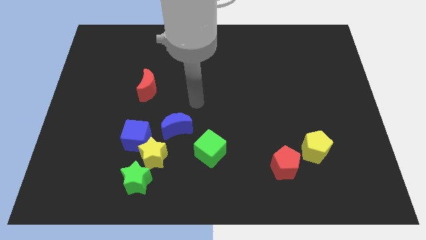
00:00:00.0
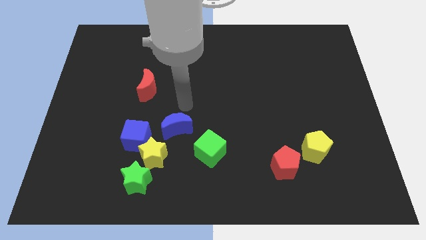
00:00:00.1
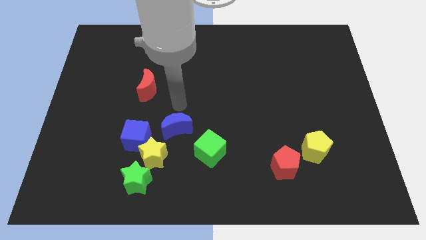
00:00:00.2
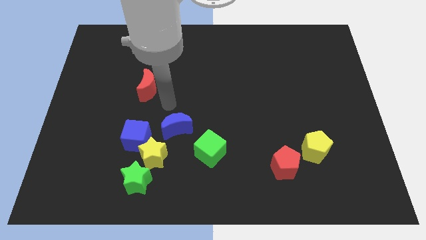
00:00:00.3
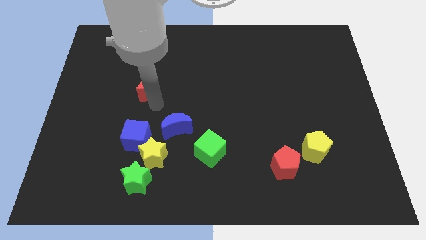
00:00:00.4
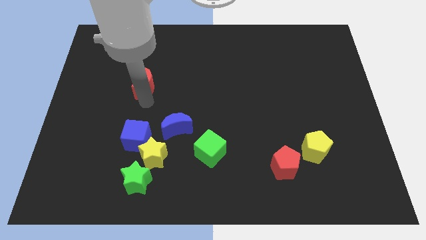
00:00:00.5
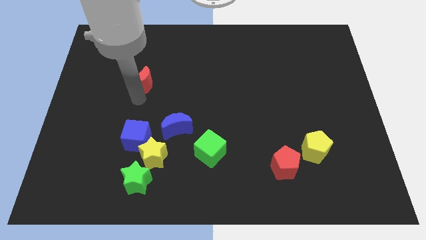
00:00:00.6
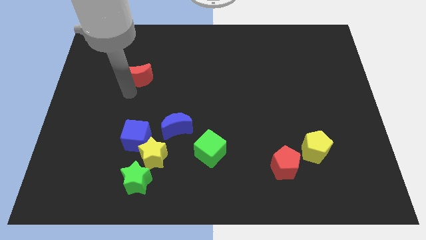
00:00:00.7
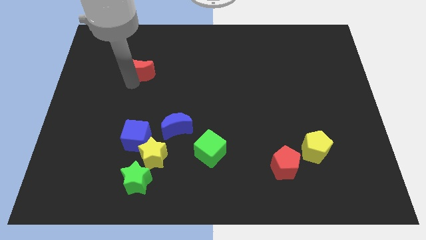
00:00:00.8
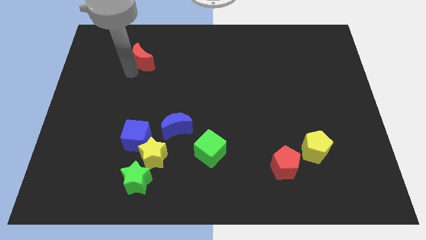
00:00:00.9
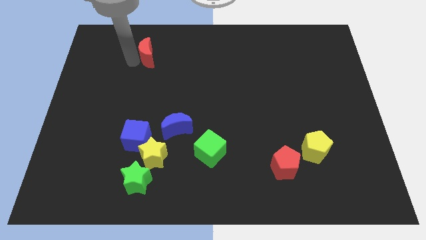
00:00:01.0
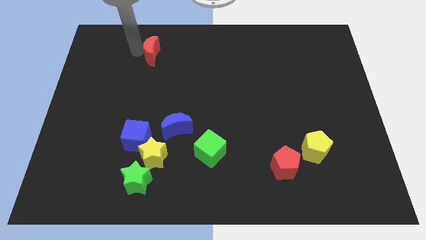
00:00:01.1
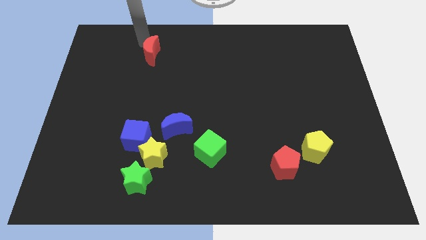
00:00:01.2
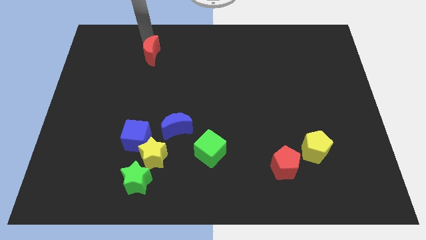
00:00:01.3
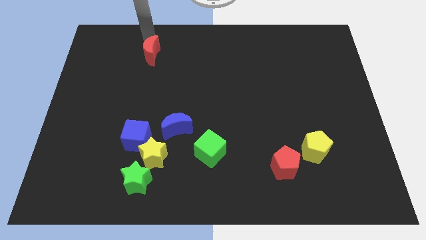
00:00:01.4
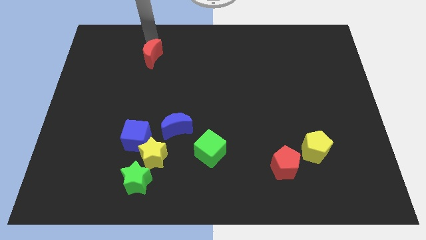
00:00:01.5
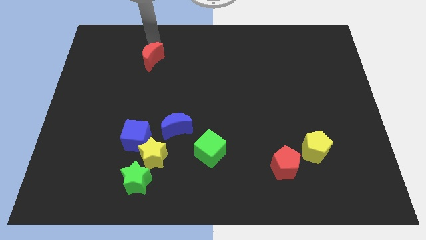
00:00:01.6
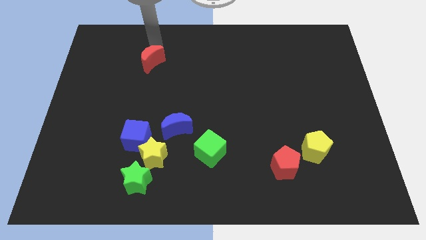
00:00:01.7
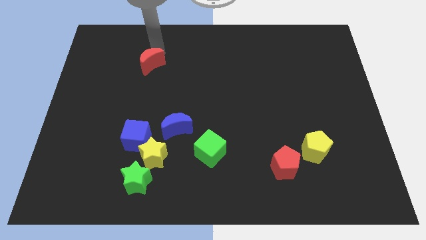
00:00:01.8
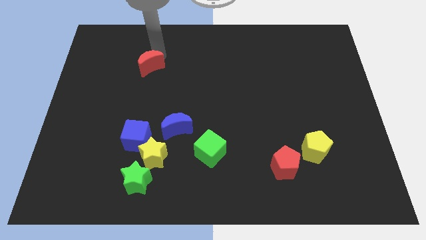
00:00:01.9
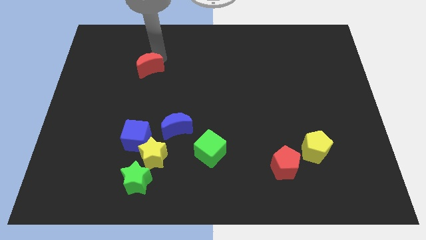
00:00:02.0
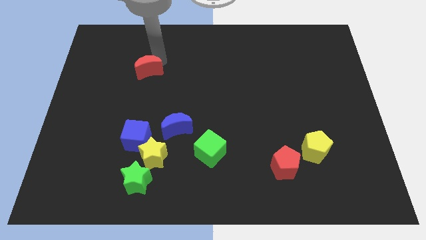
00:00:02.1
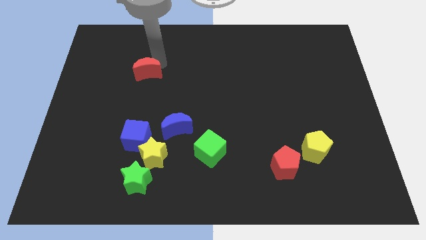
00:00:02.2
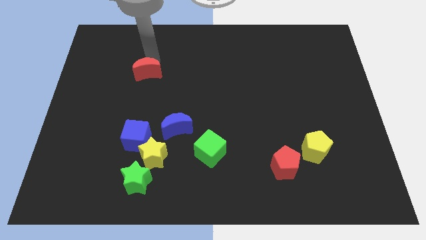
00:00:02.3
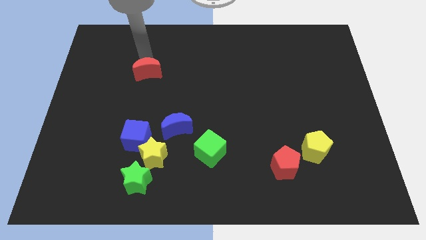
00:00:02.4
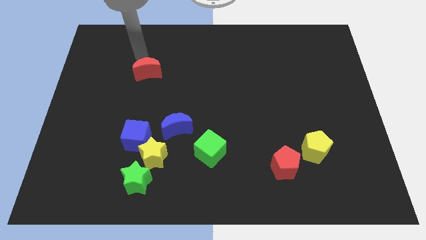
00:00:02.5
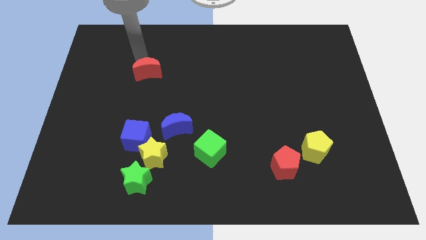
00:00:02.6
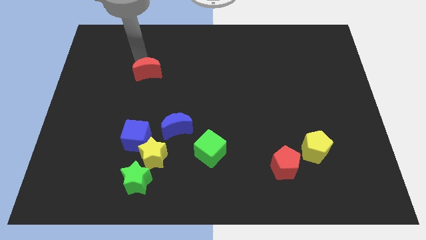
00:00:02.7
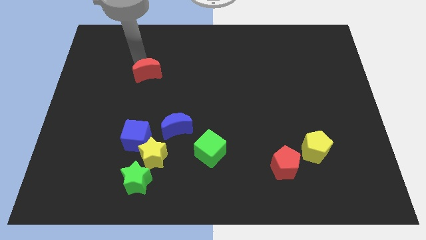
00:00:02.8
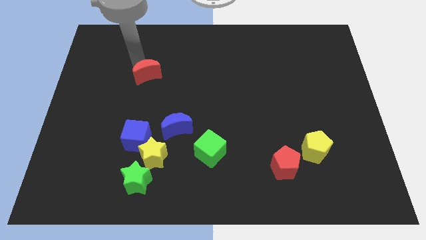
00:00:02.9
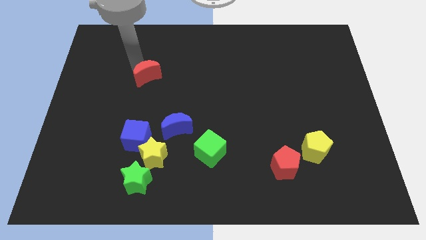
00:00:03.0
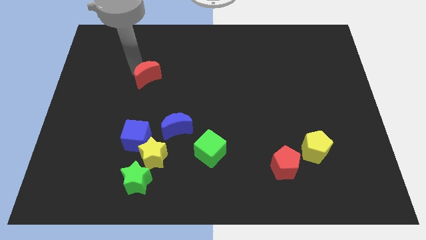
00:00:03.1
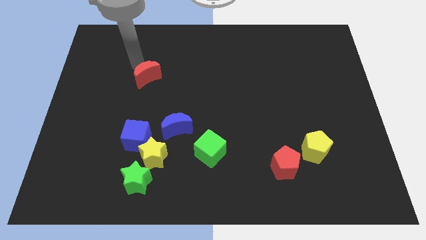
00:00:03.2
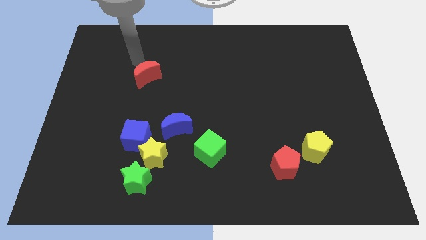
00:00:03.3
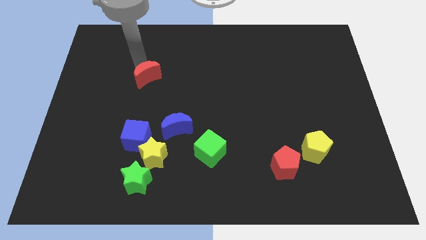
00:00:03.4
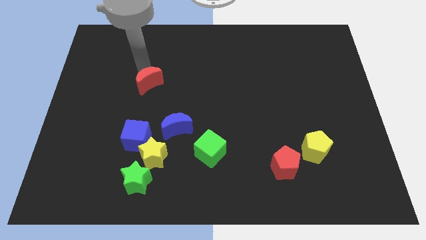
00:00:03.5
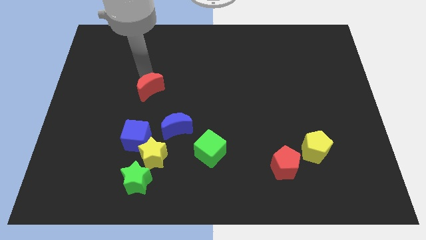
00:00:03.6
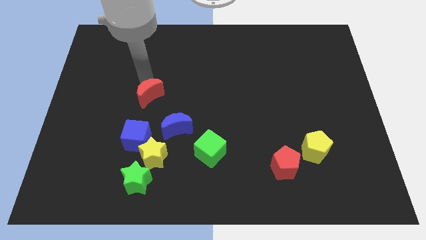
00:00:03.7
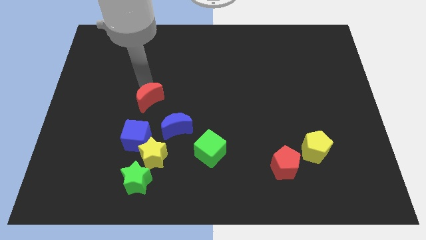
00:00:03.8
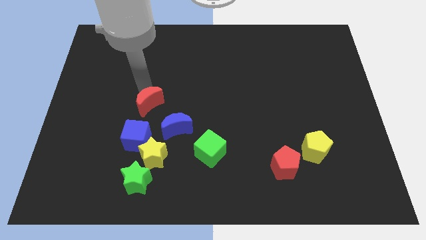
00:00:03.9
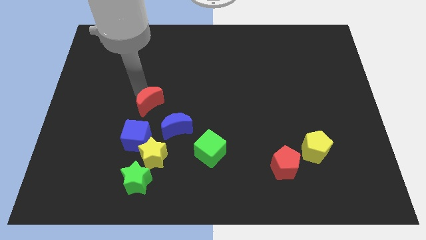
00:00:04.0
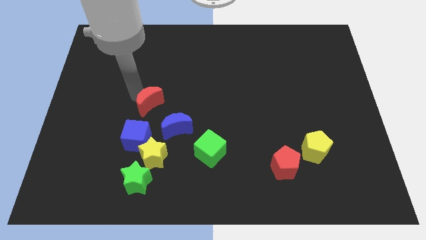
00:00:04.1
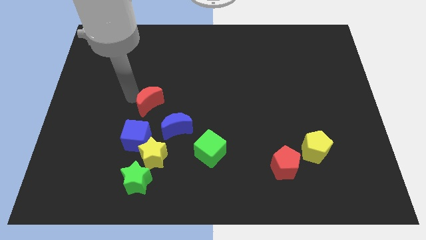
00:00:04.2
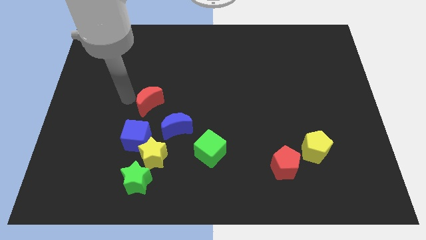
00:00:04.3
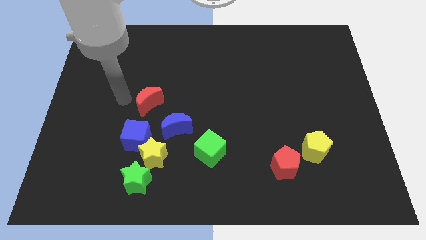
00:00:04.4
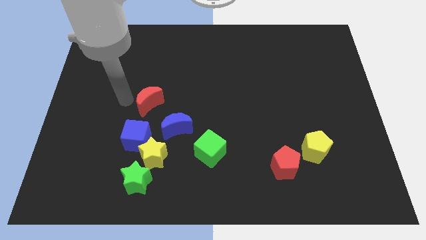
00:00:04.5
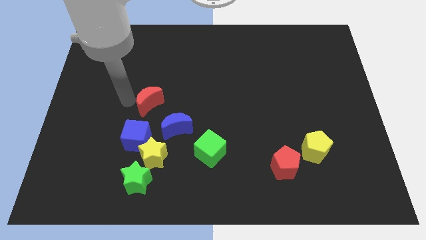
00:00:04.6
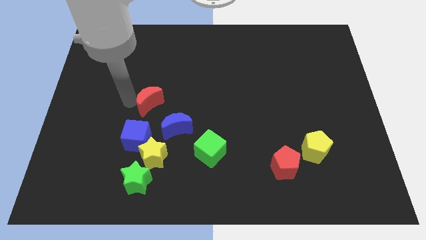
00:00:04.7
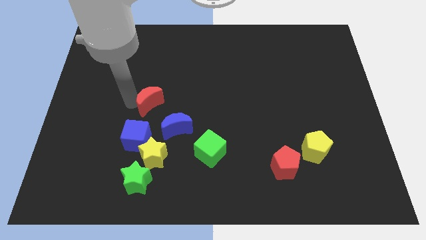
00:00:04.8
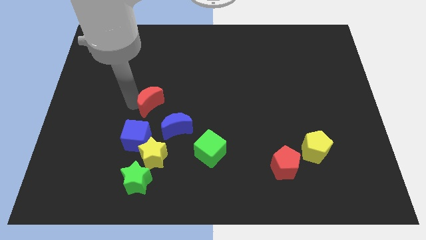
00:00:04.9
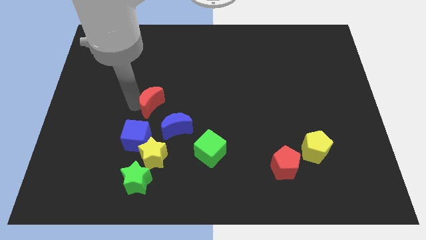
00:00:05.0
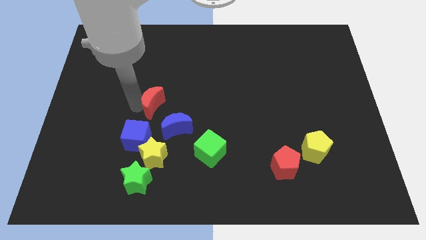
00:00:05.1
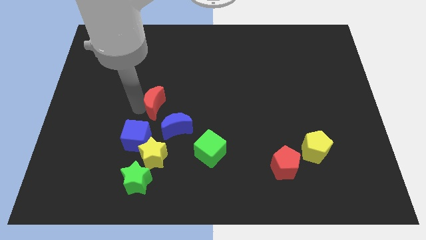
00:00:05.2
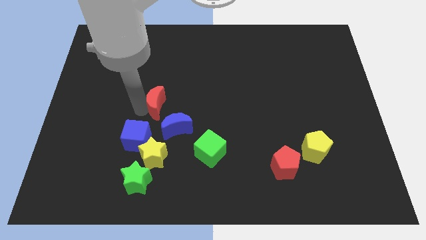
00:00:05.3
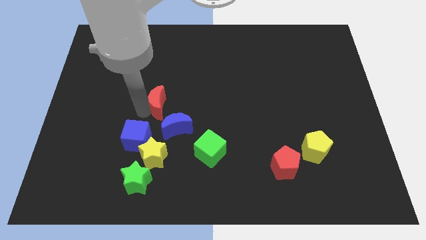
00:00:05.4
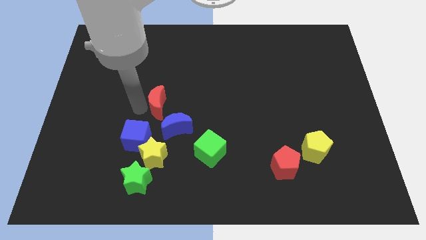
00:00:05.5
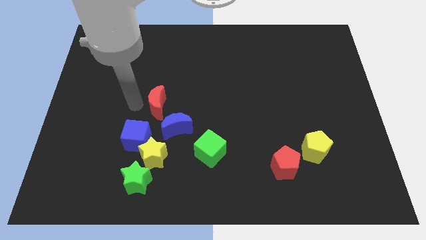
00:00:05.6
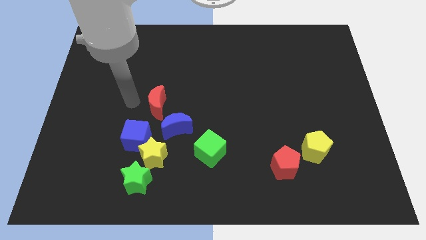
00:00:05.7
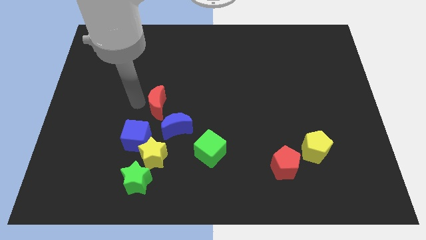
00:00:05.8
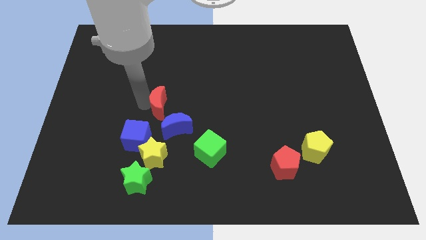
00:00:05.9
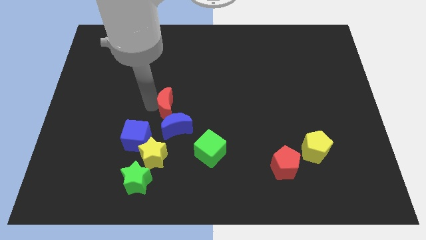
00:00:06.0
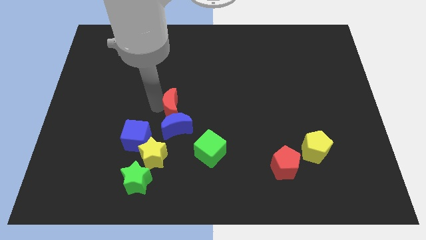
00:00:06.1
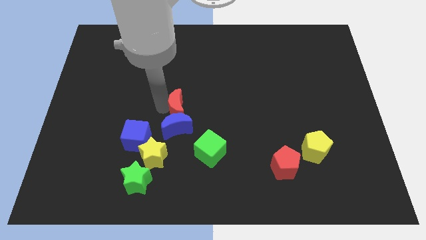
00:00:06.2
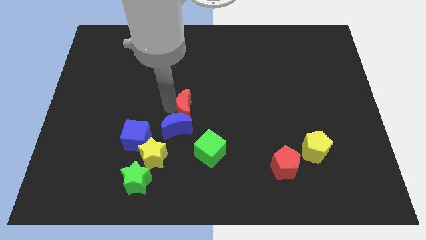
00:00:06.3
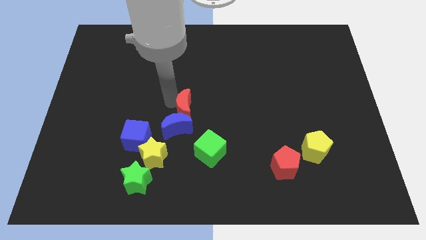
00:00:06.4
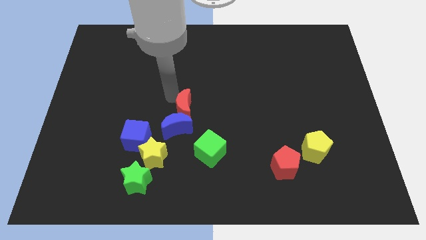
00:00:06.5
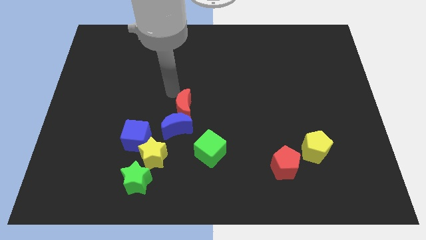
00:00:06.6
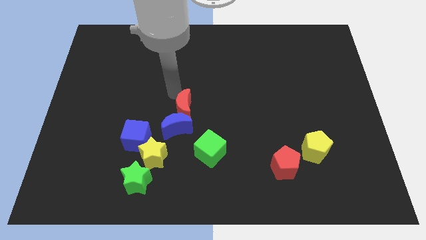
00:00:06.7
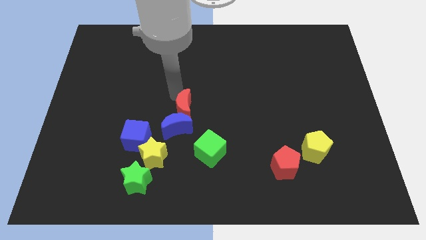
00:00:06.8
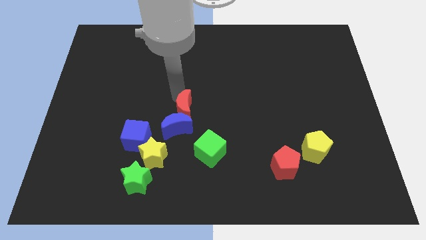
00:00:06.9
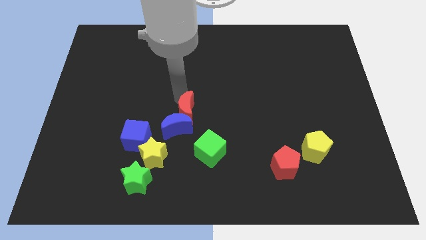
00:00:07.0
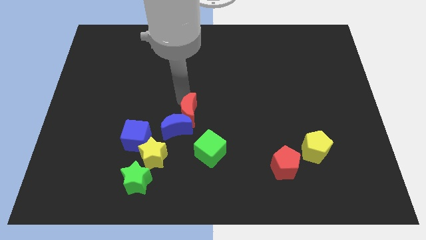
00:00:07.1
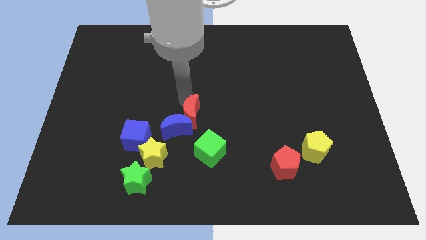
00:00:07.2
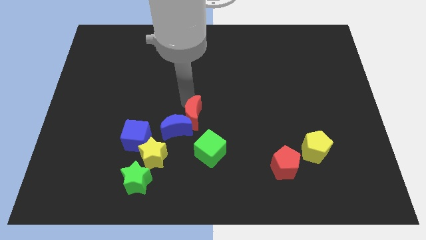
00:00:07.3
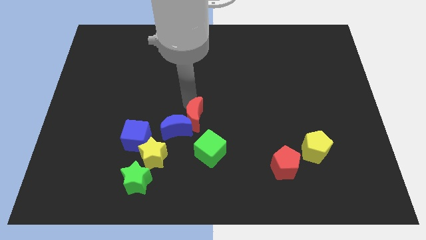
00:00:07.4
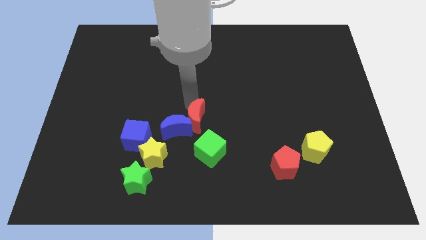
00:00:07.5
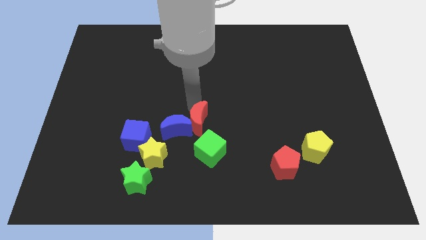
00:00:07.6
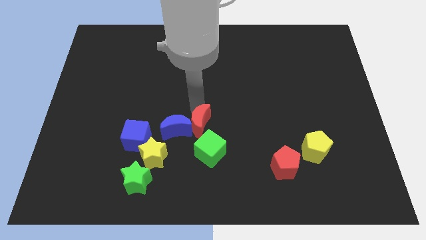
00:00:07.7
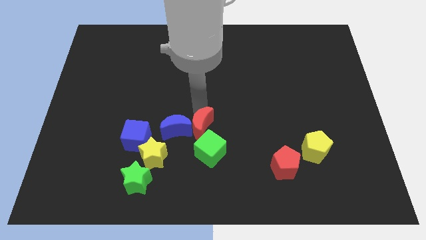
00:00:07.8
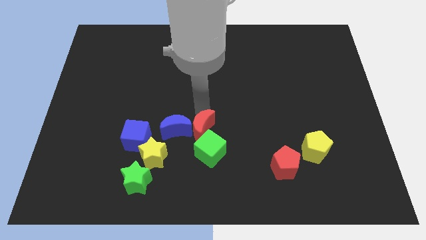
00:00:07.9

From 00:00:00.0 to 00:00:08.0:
move the red moon next to the green cube
